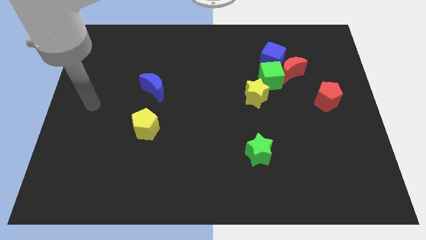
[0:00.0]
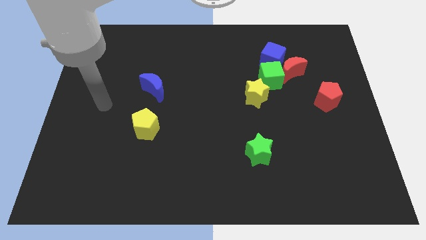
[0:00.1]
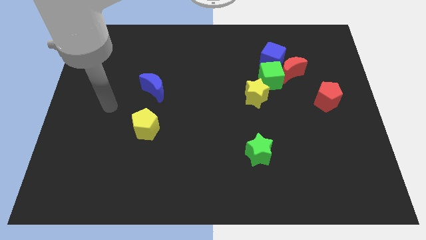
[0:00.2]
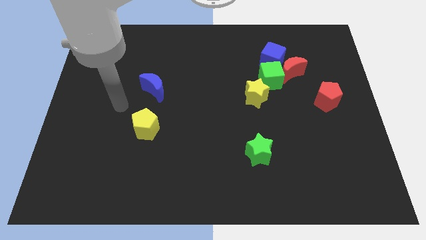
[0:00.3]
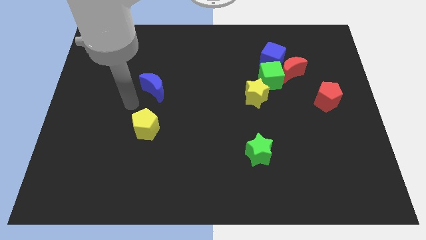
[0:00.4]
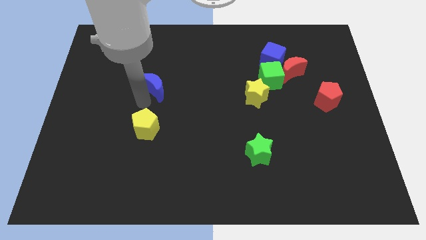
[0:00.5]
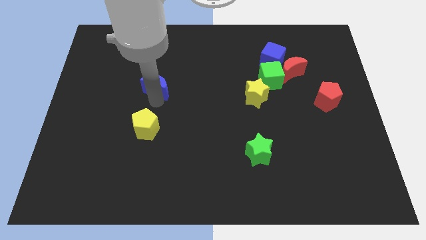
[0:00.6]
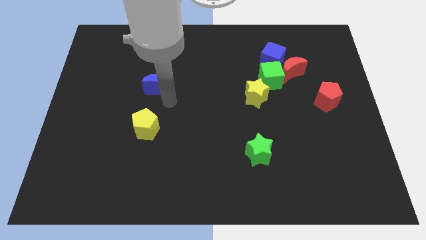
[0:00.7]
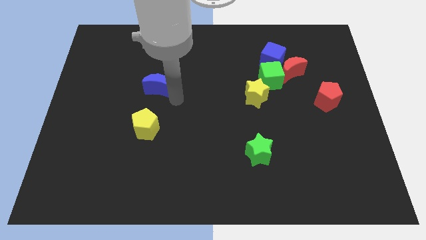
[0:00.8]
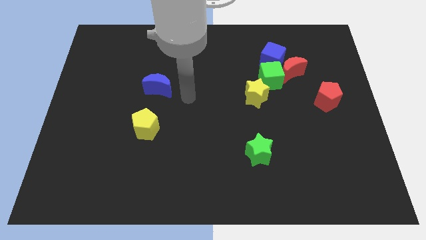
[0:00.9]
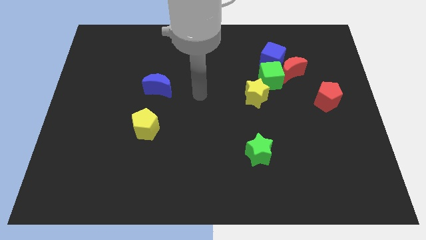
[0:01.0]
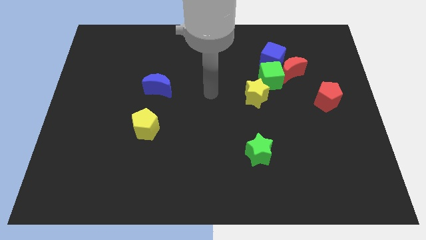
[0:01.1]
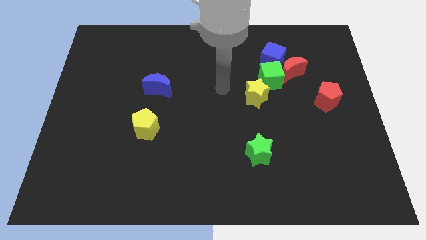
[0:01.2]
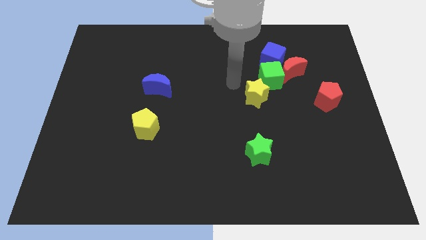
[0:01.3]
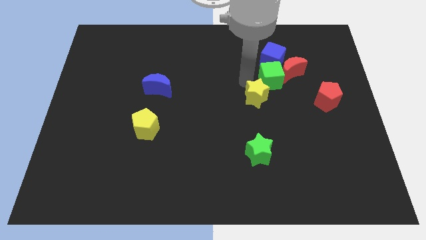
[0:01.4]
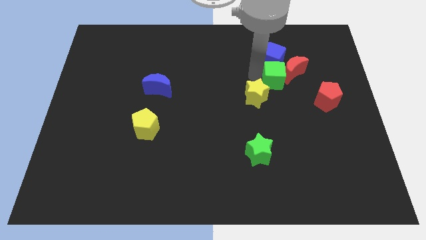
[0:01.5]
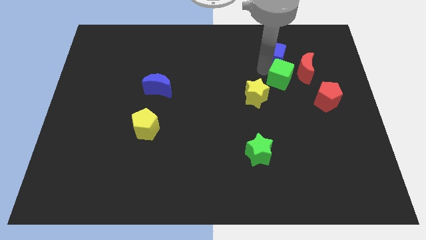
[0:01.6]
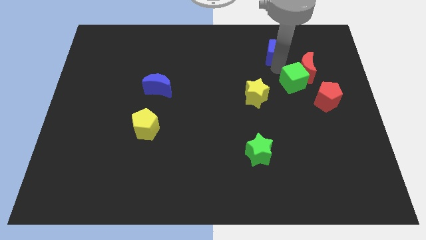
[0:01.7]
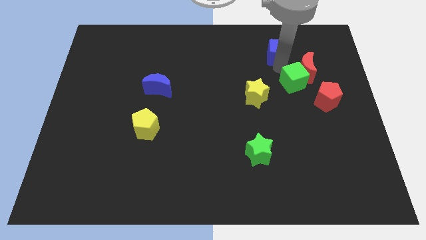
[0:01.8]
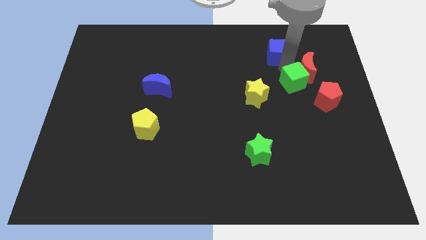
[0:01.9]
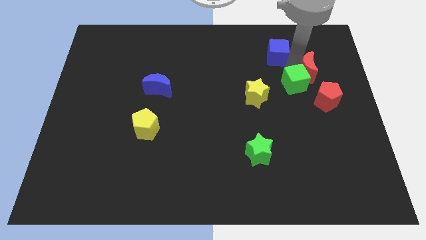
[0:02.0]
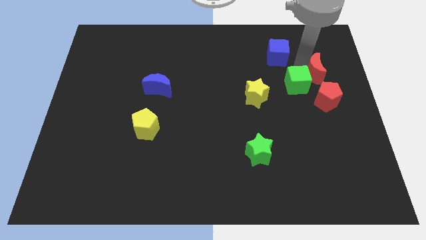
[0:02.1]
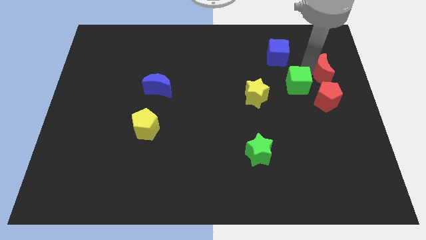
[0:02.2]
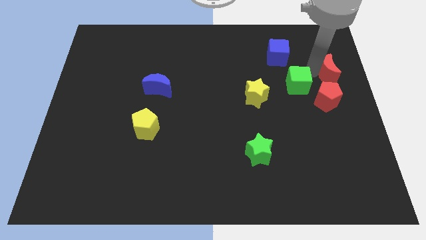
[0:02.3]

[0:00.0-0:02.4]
separate the red moon from the green cube and blue cube

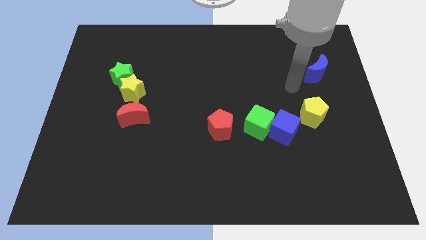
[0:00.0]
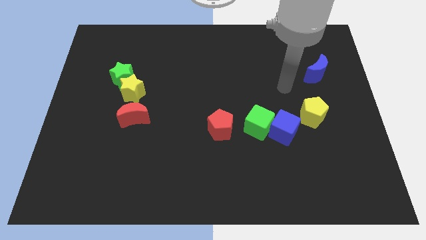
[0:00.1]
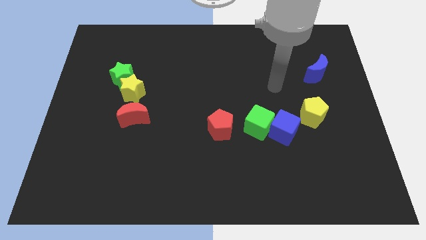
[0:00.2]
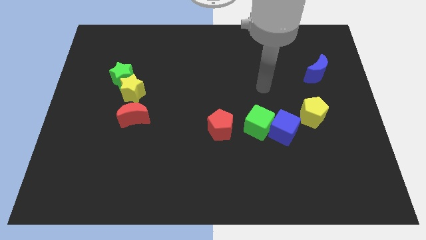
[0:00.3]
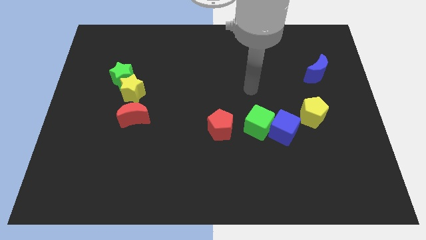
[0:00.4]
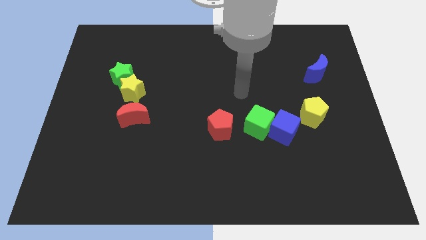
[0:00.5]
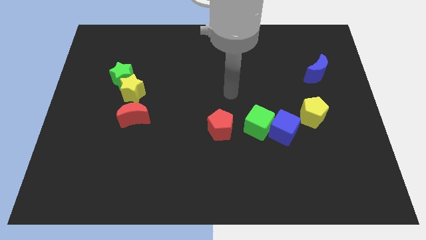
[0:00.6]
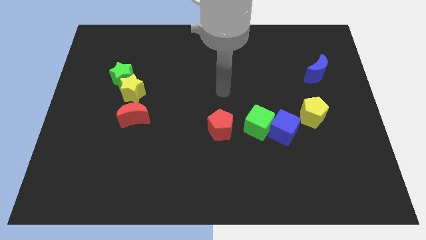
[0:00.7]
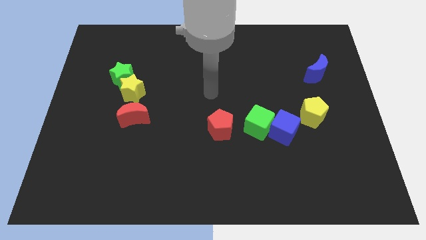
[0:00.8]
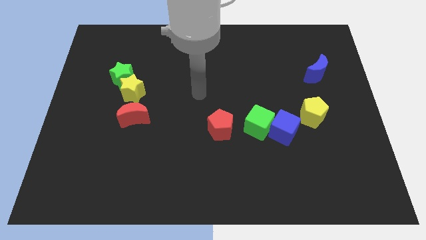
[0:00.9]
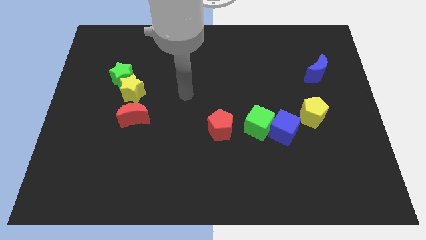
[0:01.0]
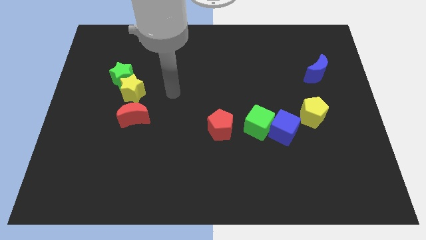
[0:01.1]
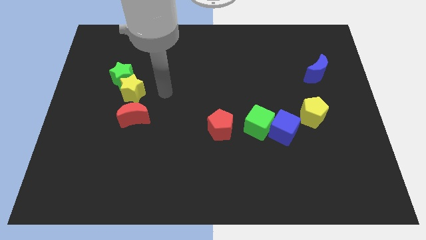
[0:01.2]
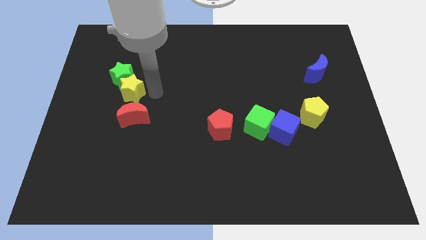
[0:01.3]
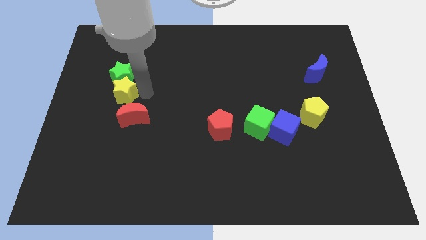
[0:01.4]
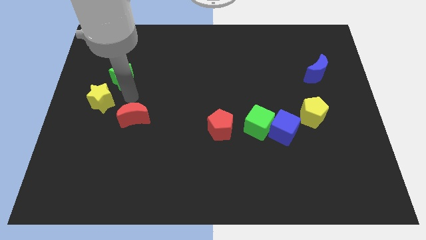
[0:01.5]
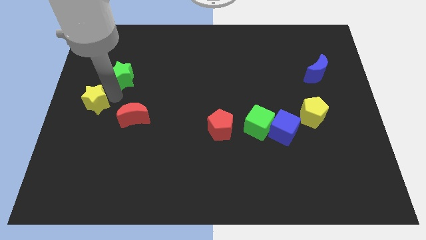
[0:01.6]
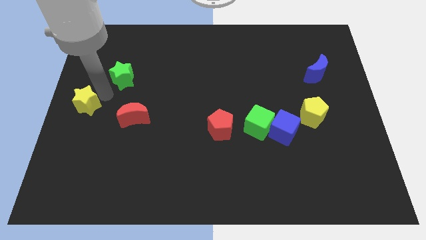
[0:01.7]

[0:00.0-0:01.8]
move the green star away from the yellow star

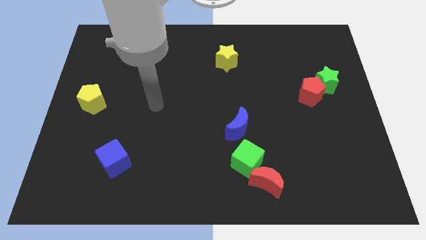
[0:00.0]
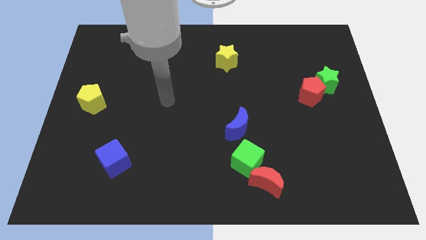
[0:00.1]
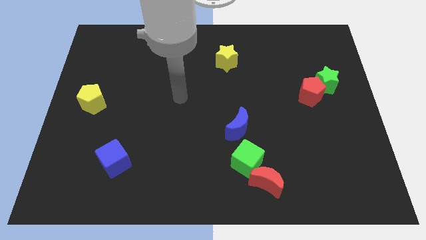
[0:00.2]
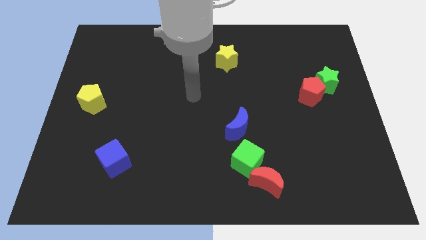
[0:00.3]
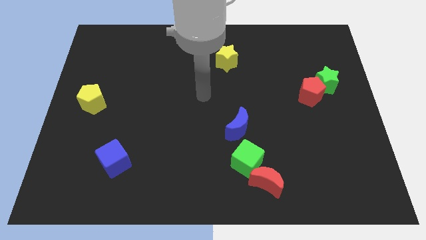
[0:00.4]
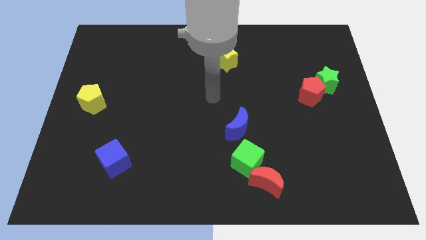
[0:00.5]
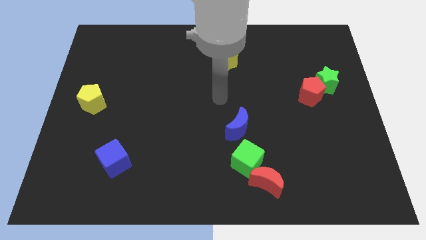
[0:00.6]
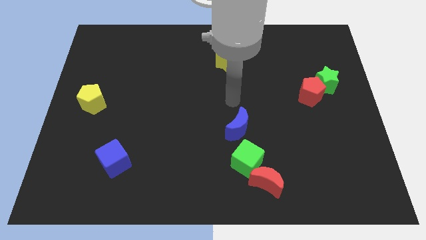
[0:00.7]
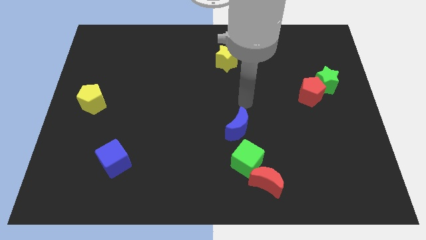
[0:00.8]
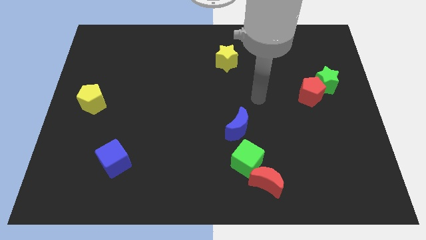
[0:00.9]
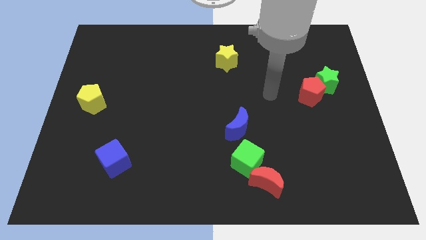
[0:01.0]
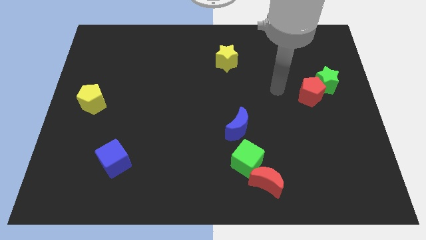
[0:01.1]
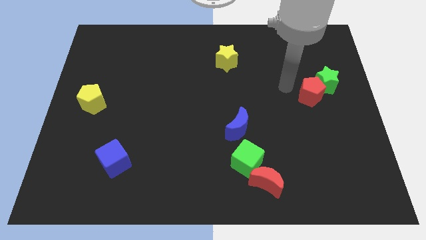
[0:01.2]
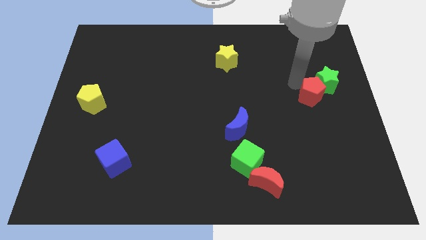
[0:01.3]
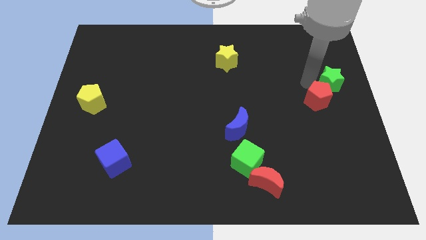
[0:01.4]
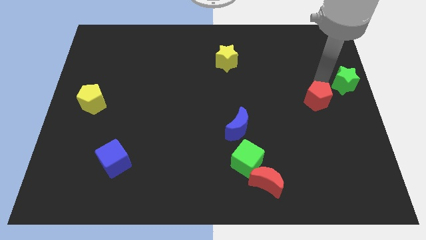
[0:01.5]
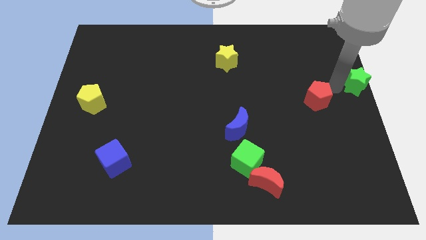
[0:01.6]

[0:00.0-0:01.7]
move the red pentagon away from the green star

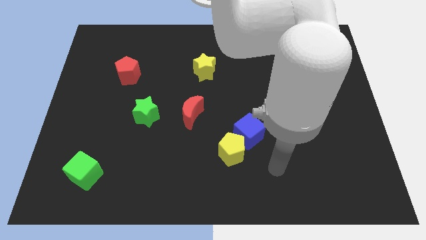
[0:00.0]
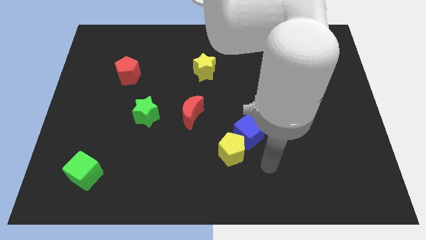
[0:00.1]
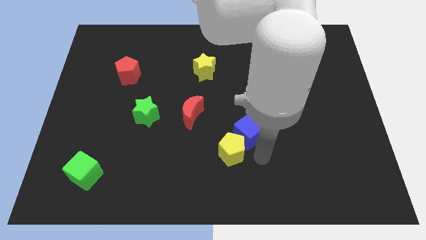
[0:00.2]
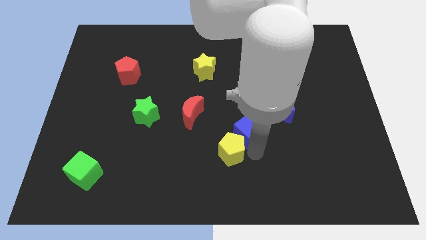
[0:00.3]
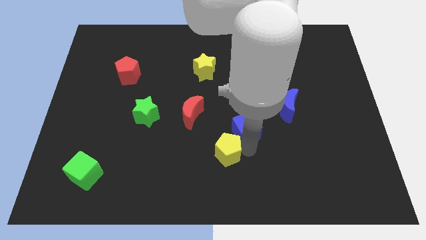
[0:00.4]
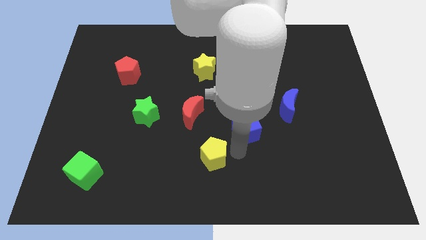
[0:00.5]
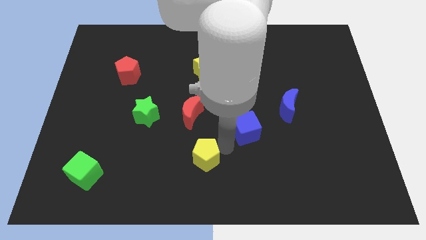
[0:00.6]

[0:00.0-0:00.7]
separate the blue cube from the yellow pentagon

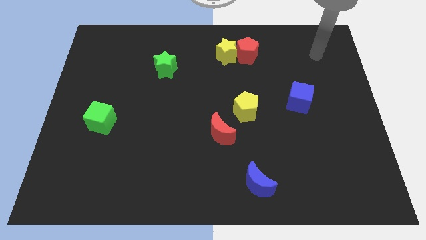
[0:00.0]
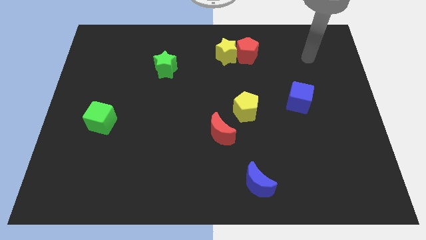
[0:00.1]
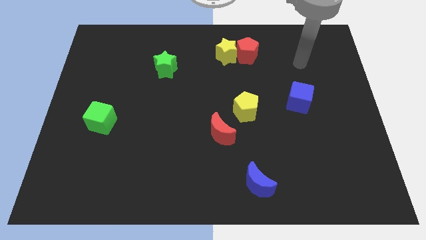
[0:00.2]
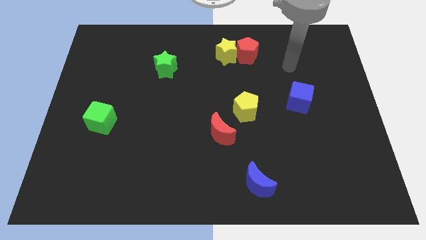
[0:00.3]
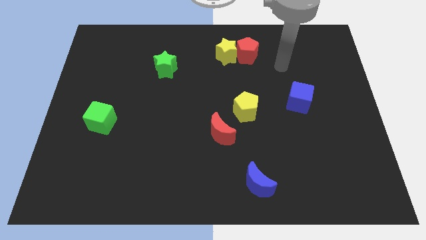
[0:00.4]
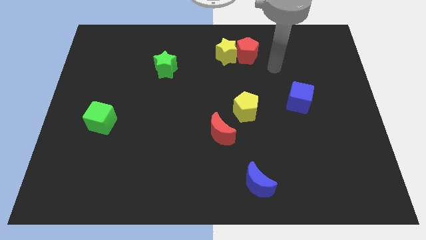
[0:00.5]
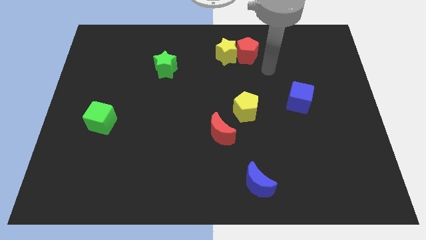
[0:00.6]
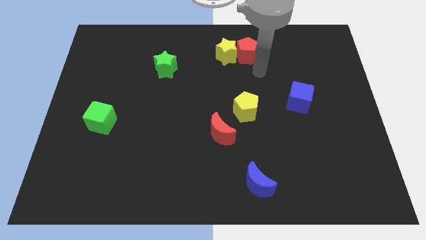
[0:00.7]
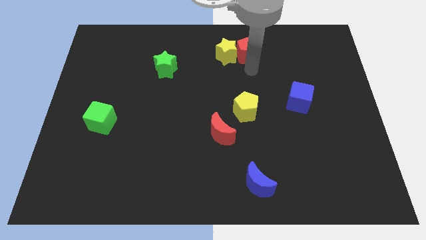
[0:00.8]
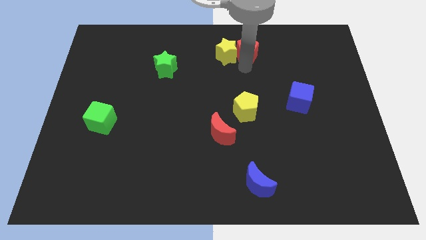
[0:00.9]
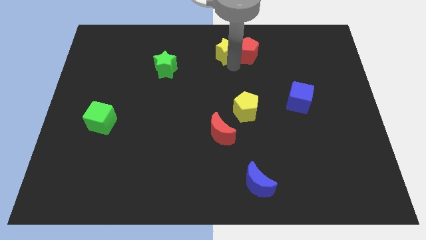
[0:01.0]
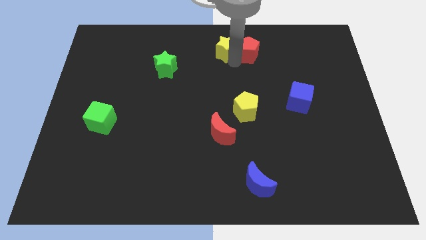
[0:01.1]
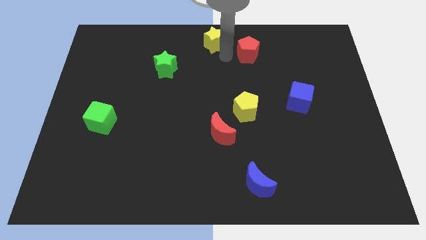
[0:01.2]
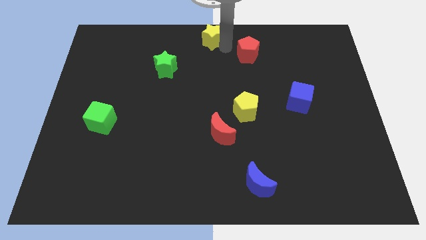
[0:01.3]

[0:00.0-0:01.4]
move the red pentagon away from the yellow star

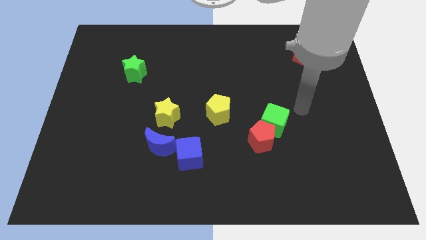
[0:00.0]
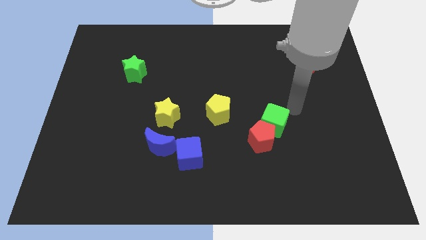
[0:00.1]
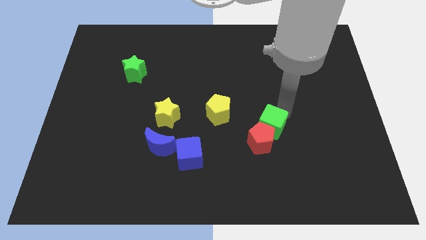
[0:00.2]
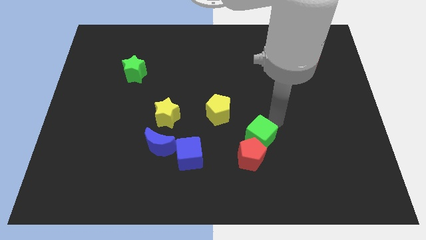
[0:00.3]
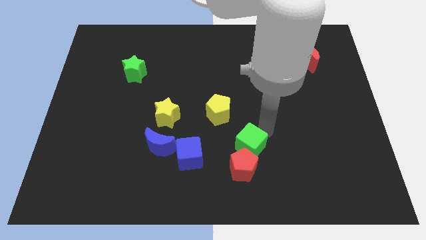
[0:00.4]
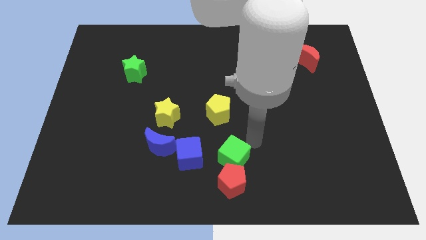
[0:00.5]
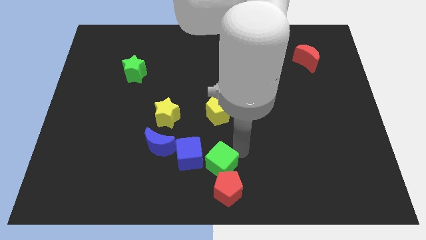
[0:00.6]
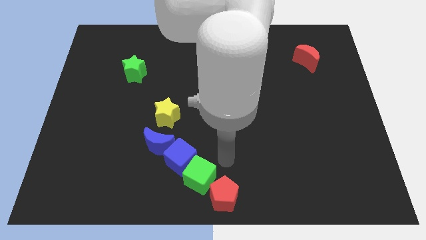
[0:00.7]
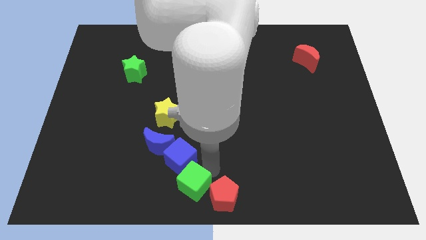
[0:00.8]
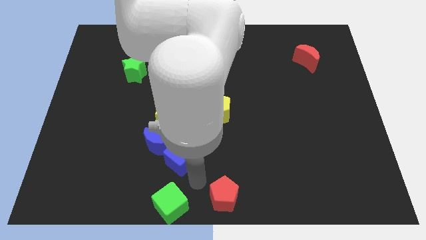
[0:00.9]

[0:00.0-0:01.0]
separate the red pentagon from the green cube

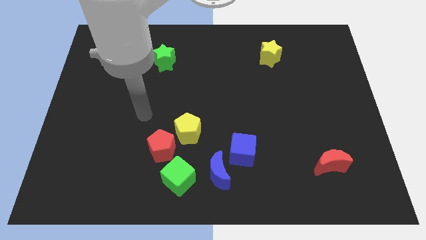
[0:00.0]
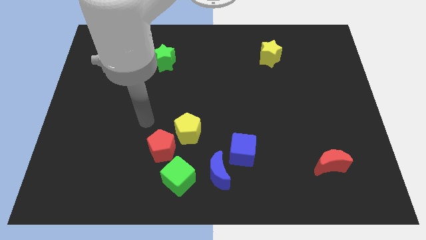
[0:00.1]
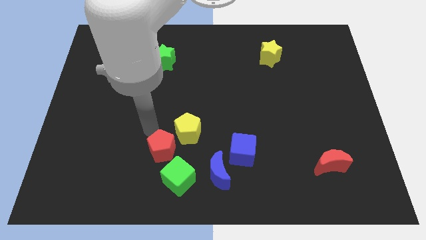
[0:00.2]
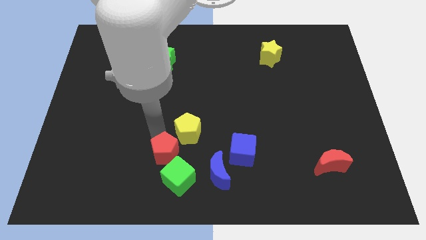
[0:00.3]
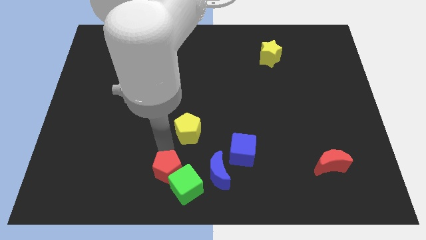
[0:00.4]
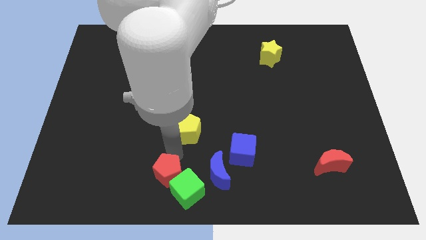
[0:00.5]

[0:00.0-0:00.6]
separate the yellow pentagon from the red pentagon
